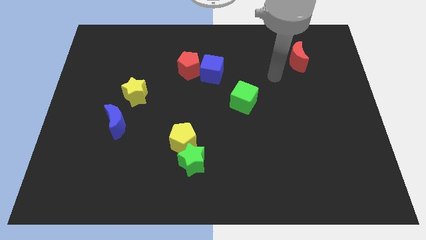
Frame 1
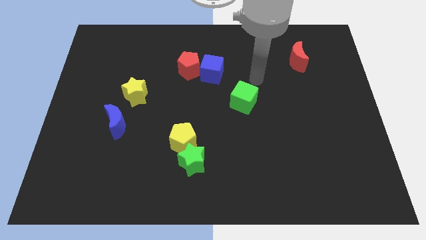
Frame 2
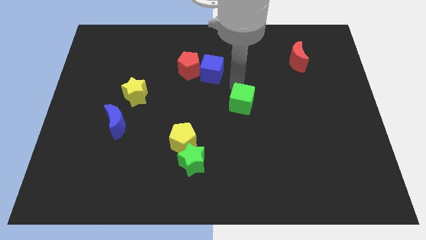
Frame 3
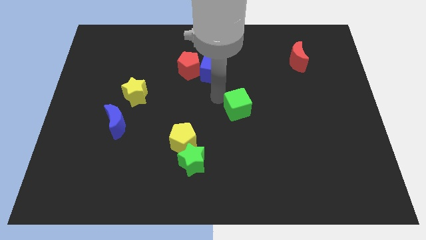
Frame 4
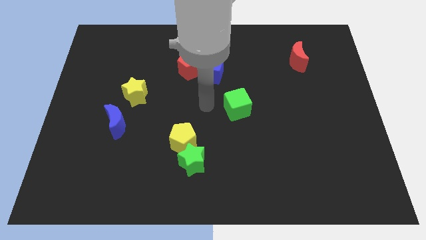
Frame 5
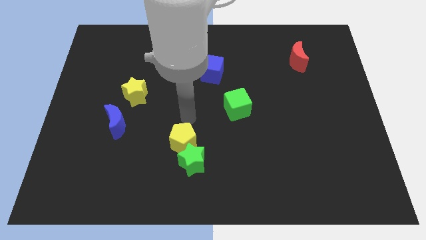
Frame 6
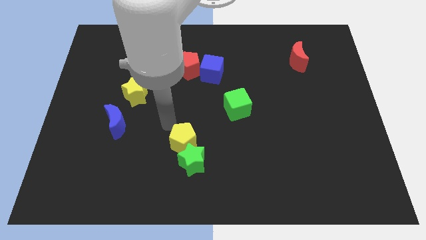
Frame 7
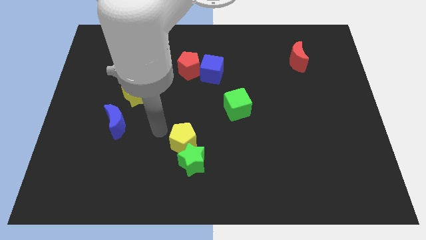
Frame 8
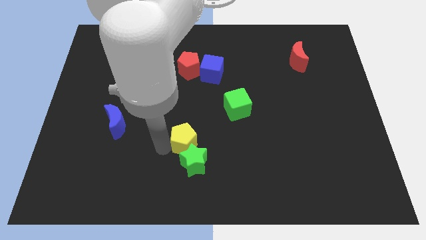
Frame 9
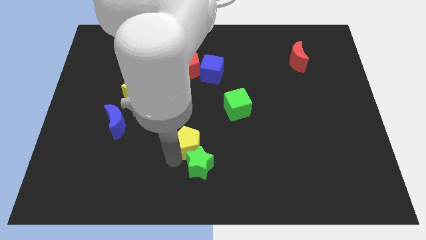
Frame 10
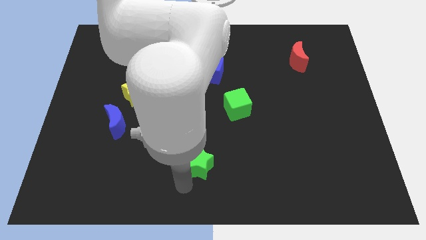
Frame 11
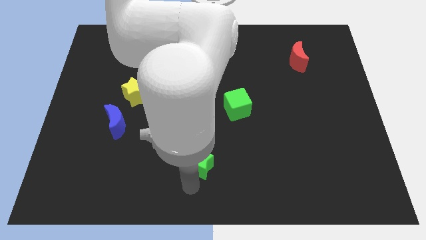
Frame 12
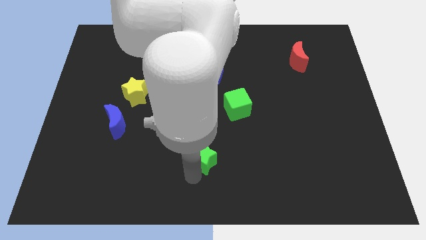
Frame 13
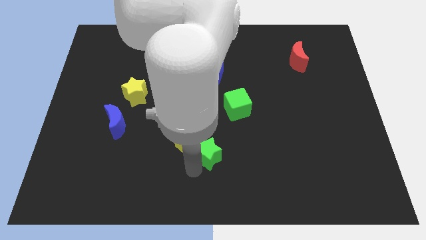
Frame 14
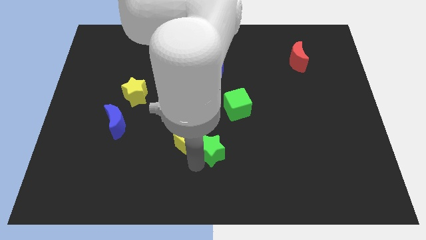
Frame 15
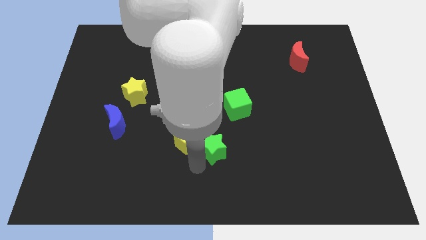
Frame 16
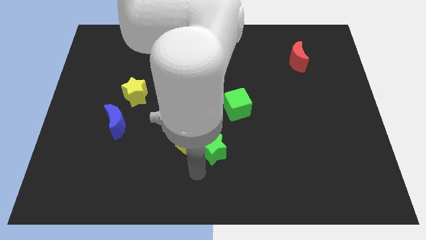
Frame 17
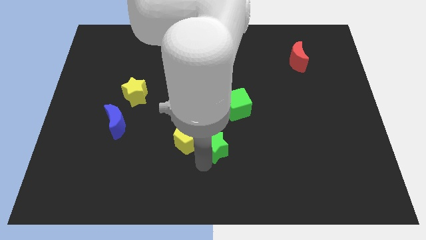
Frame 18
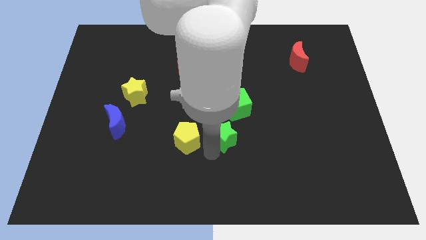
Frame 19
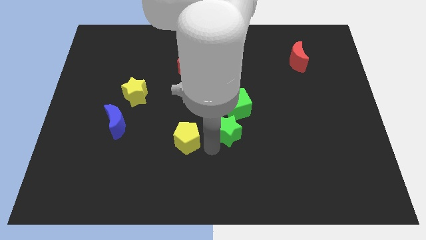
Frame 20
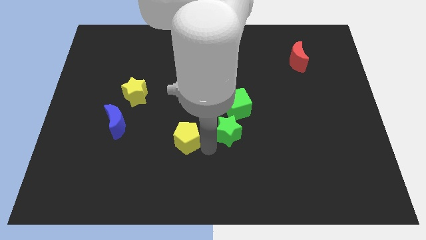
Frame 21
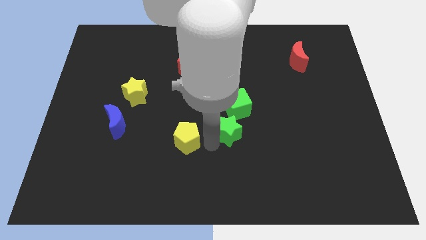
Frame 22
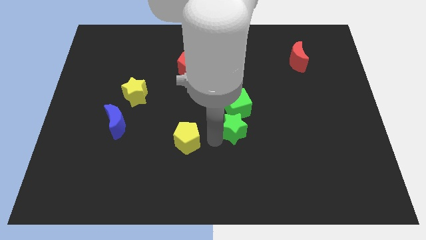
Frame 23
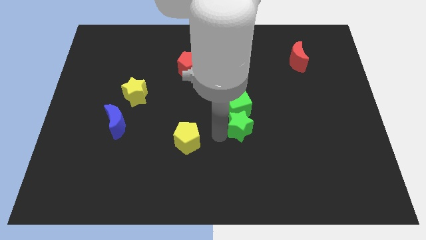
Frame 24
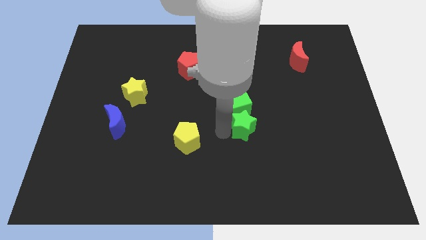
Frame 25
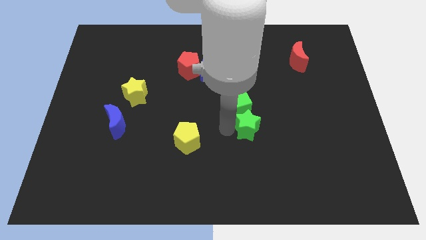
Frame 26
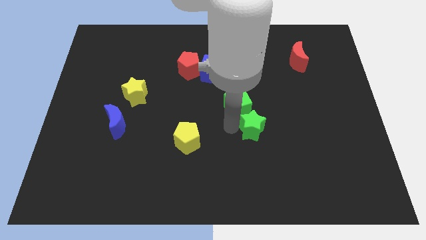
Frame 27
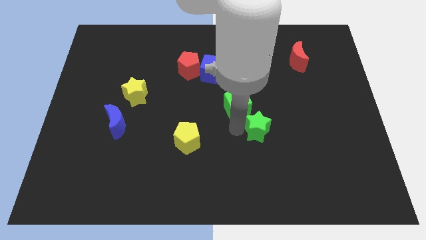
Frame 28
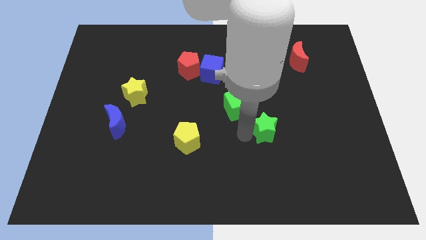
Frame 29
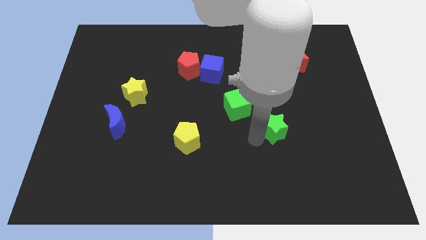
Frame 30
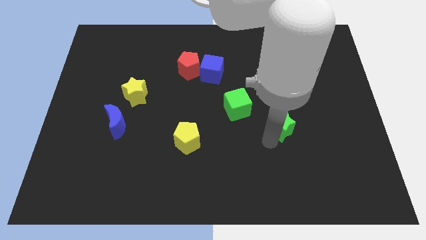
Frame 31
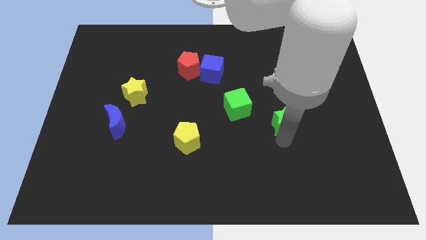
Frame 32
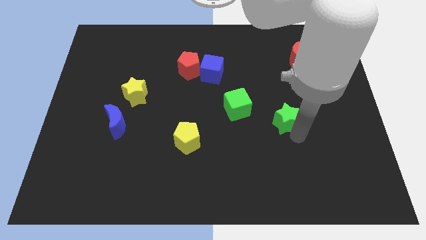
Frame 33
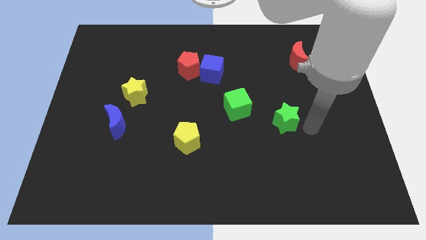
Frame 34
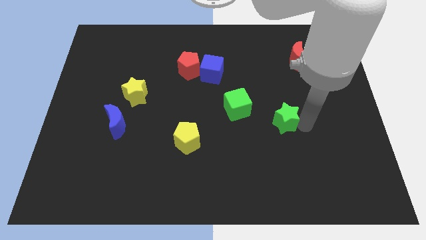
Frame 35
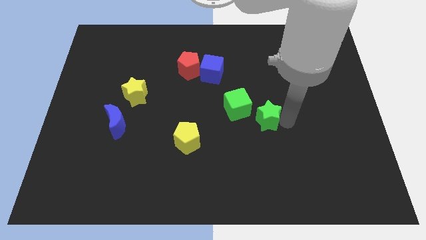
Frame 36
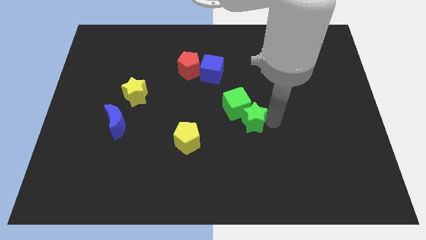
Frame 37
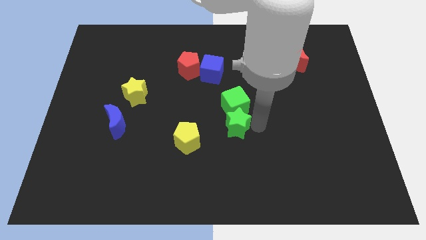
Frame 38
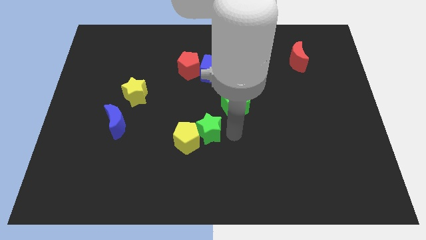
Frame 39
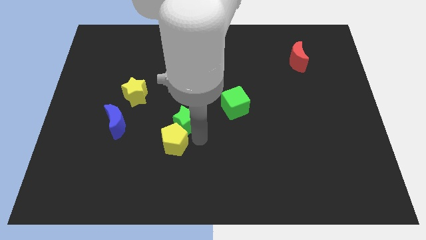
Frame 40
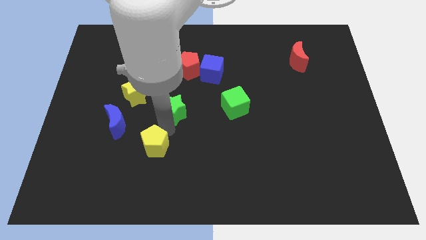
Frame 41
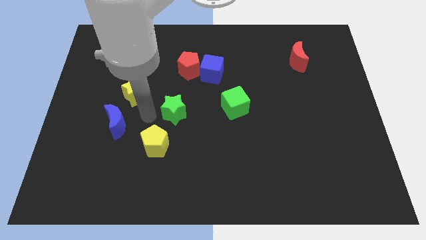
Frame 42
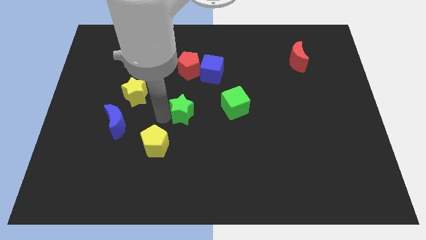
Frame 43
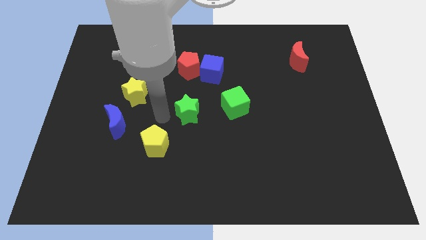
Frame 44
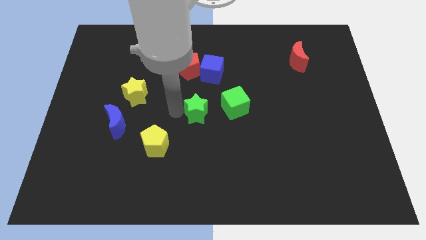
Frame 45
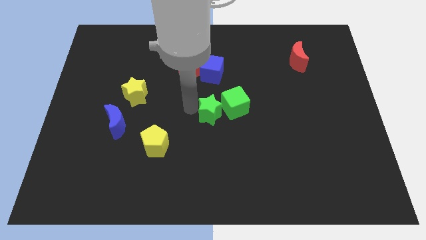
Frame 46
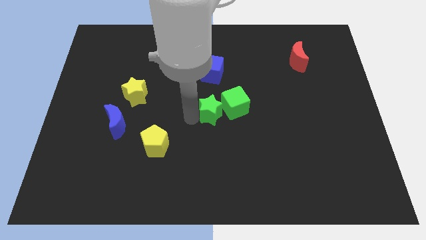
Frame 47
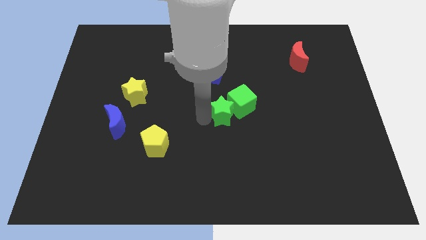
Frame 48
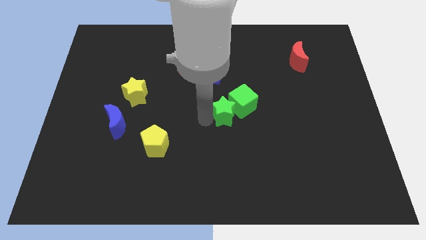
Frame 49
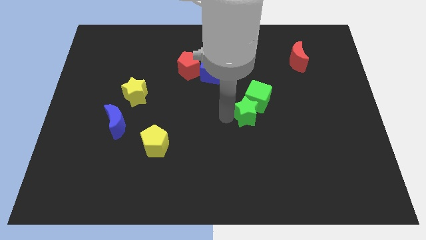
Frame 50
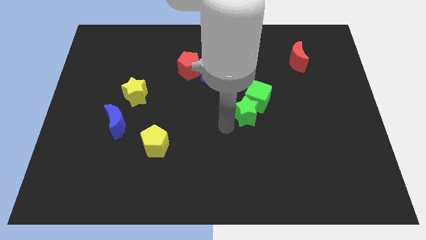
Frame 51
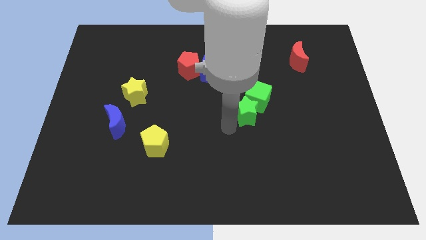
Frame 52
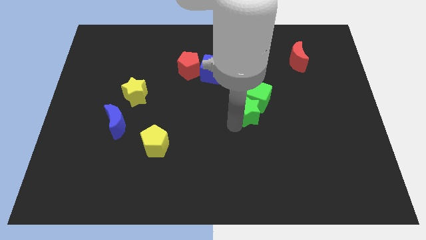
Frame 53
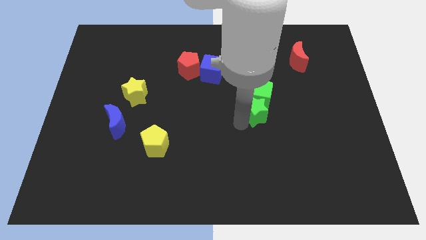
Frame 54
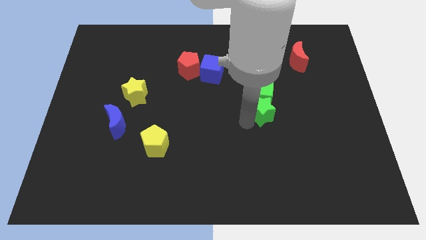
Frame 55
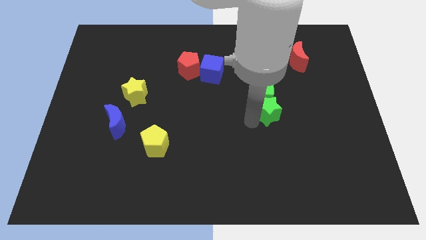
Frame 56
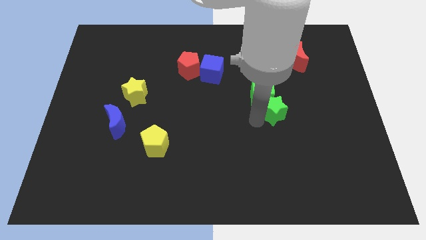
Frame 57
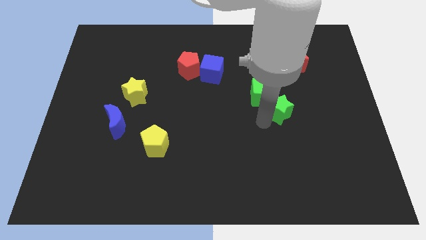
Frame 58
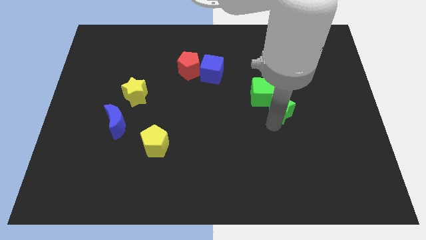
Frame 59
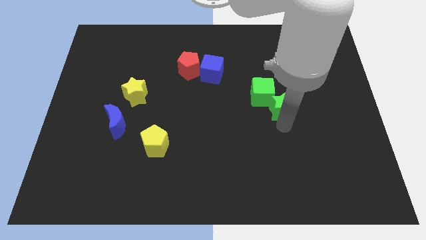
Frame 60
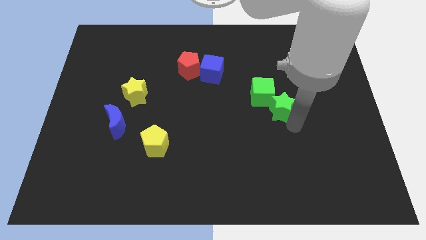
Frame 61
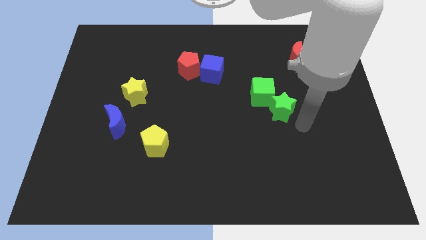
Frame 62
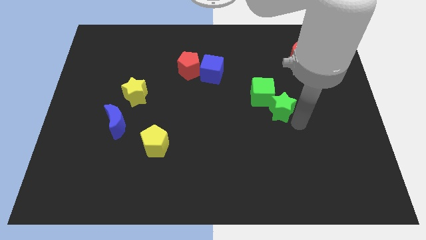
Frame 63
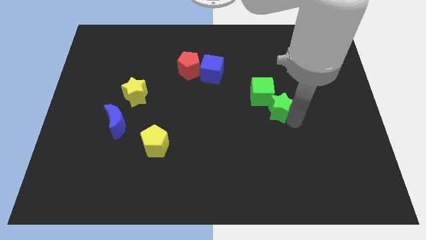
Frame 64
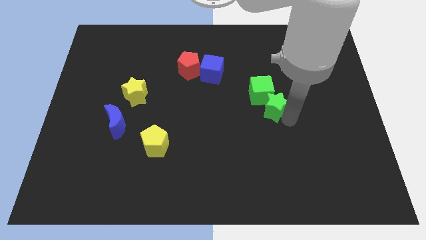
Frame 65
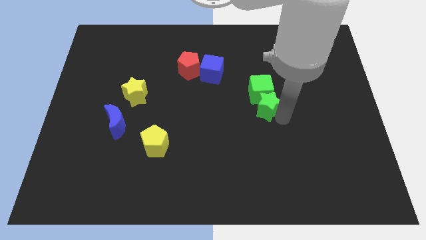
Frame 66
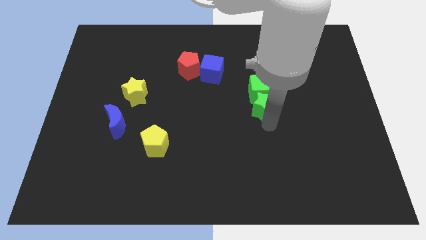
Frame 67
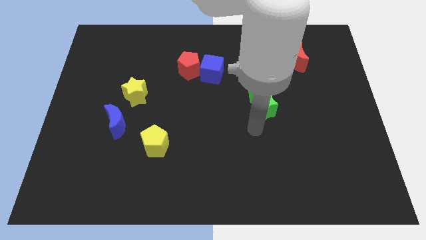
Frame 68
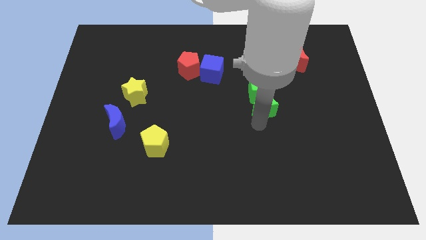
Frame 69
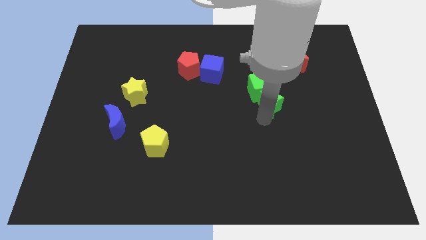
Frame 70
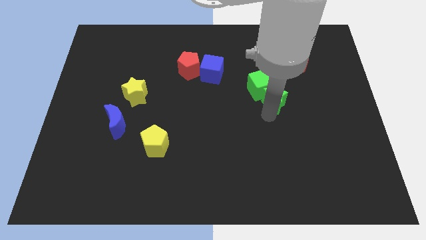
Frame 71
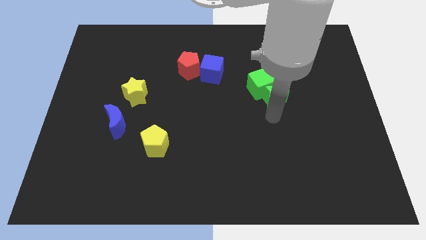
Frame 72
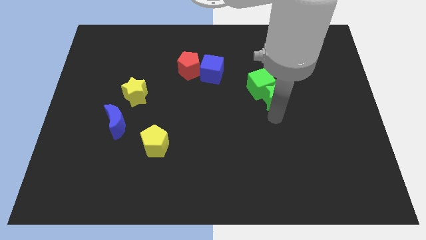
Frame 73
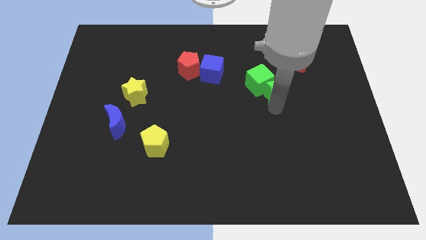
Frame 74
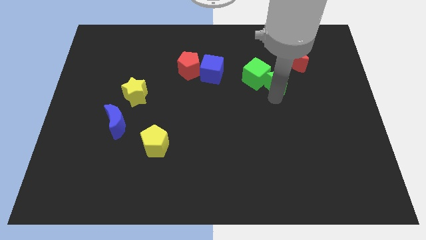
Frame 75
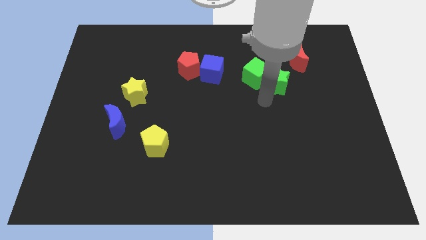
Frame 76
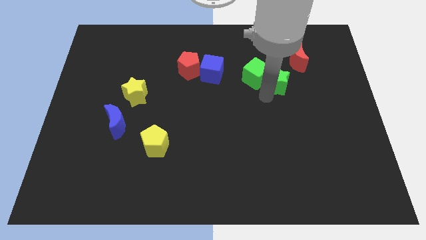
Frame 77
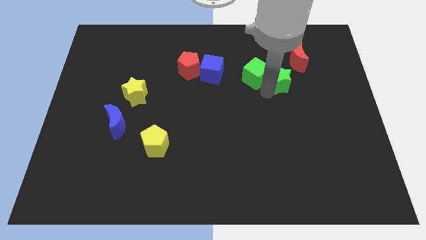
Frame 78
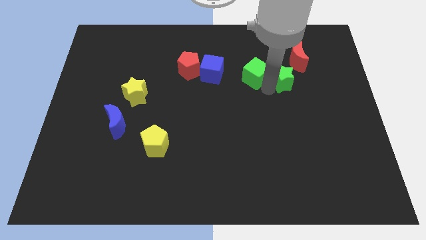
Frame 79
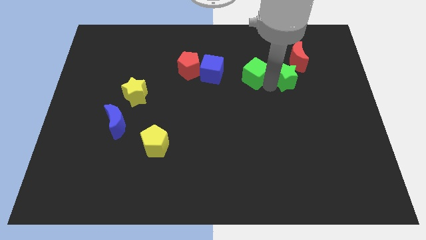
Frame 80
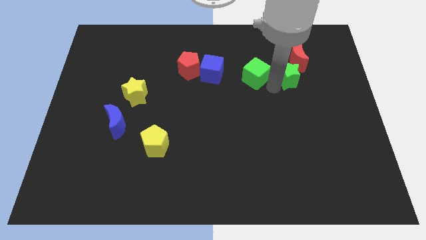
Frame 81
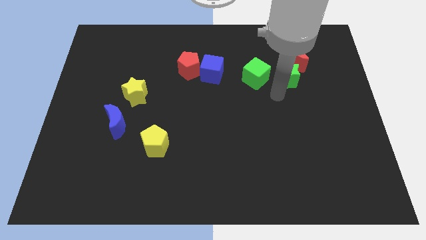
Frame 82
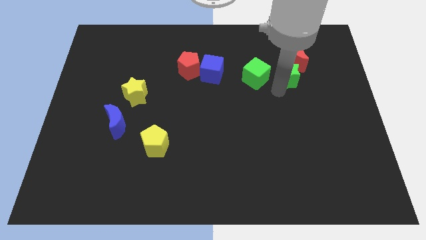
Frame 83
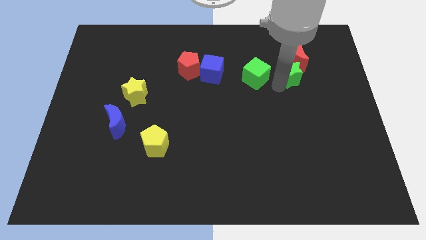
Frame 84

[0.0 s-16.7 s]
push the green star next to the red moon
